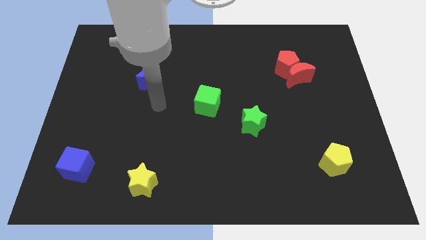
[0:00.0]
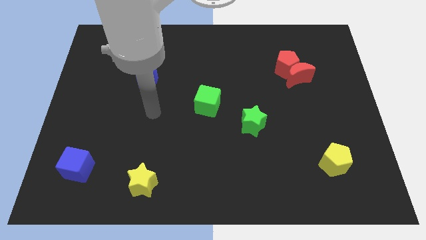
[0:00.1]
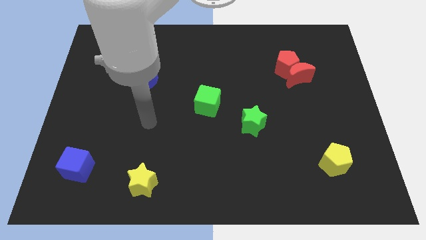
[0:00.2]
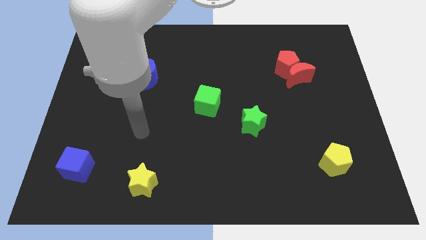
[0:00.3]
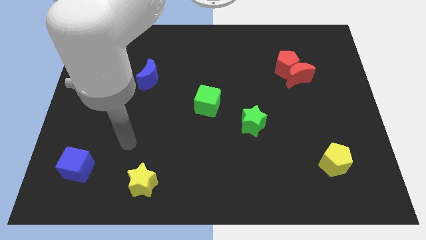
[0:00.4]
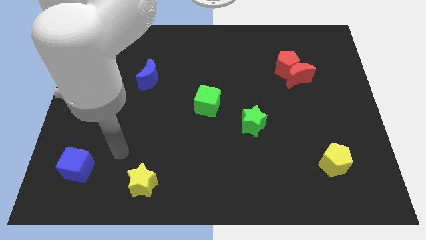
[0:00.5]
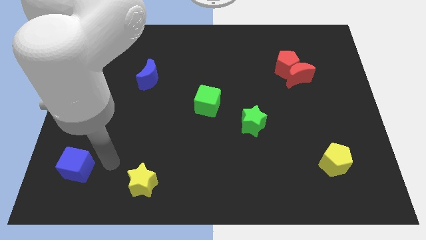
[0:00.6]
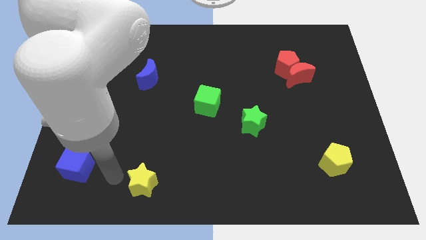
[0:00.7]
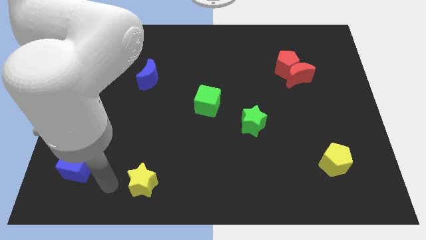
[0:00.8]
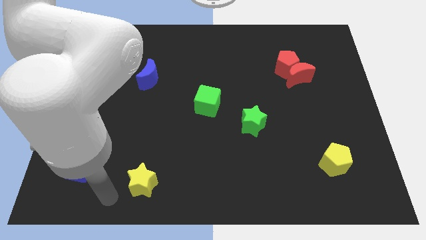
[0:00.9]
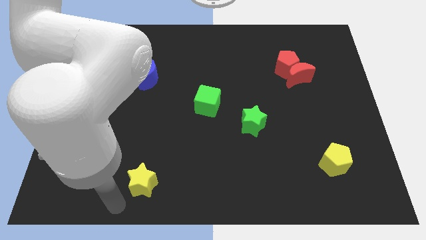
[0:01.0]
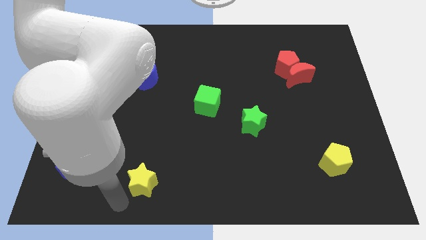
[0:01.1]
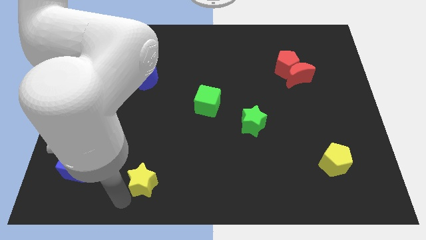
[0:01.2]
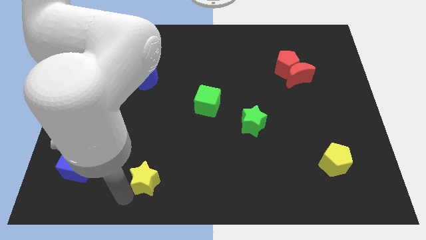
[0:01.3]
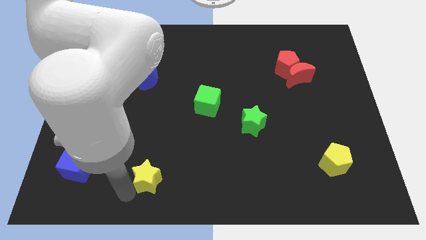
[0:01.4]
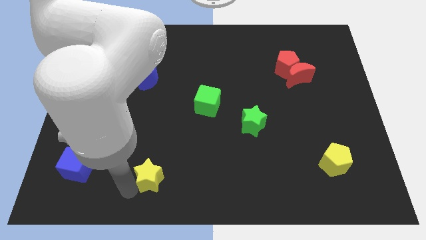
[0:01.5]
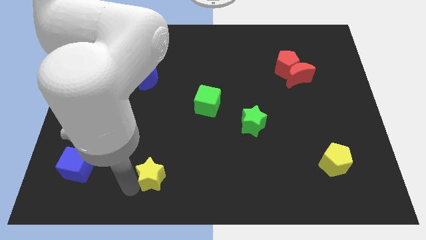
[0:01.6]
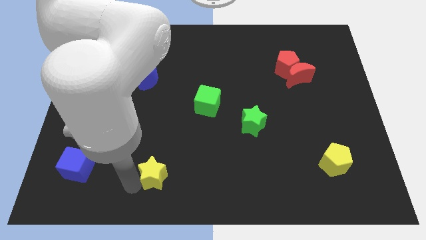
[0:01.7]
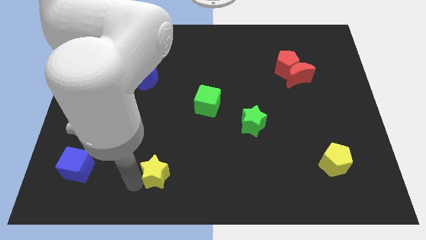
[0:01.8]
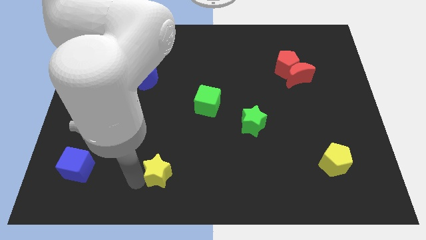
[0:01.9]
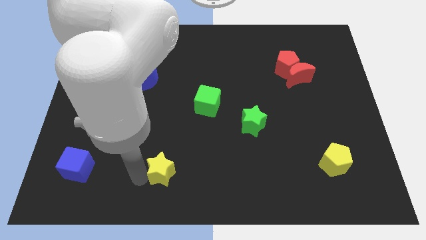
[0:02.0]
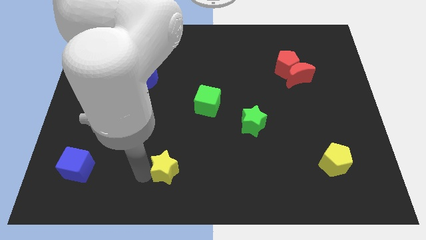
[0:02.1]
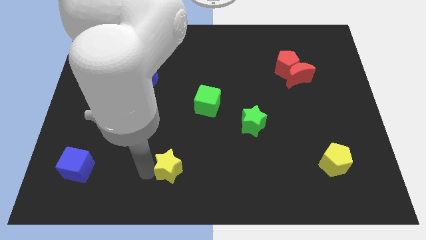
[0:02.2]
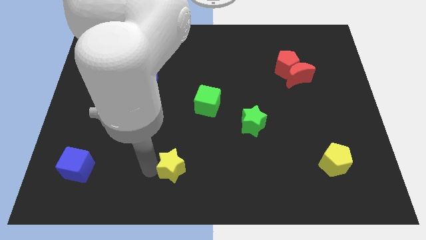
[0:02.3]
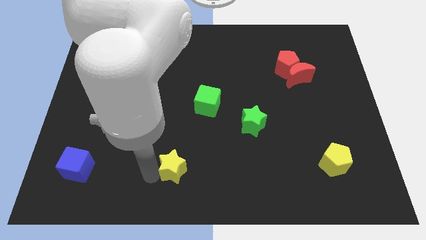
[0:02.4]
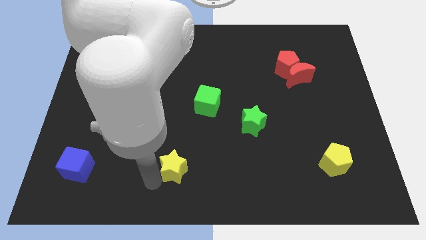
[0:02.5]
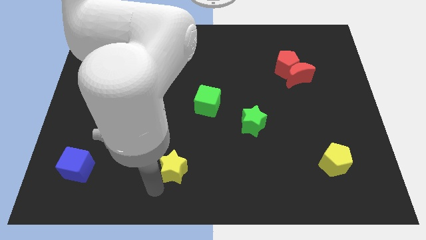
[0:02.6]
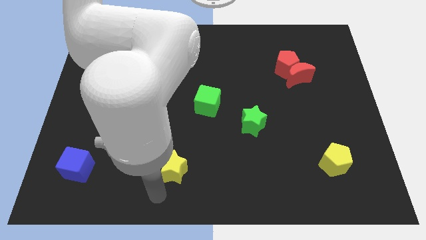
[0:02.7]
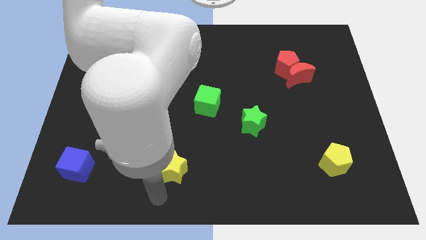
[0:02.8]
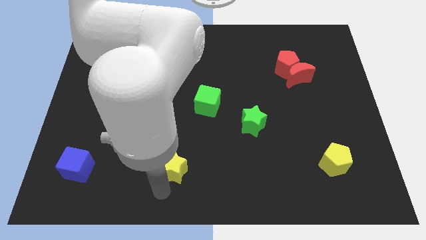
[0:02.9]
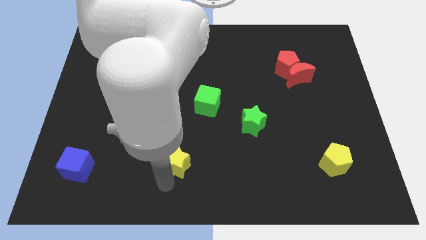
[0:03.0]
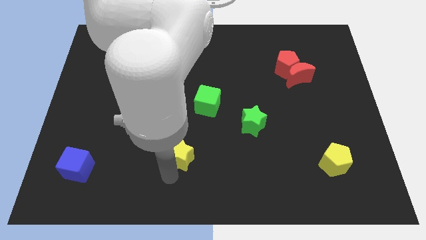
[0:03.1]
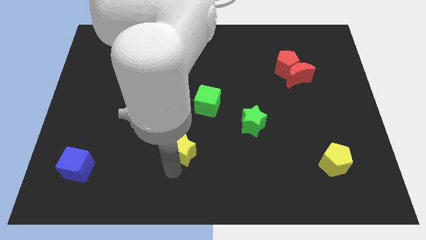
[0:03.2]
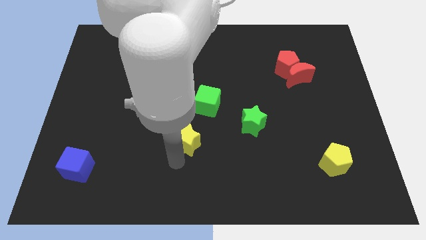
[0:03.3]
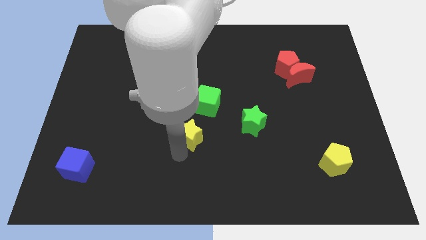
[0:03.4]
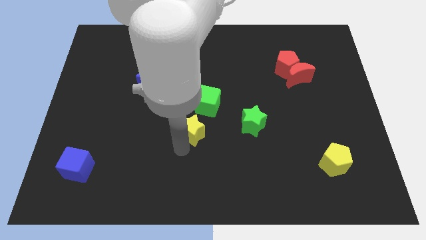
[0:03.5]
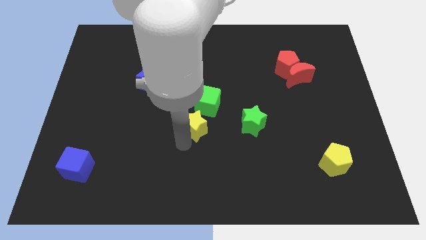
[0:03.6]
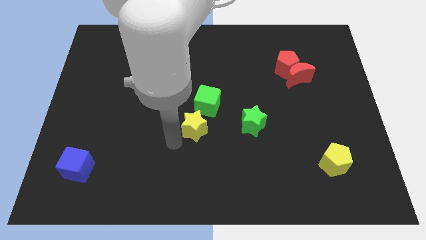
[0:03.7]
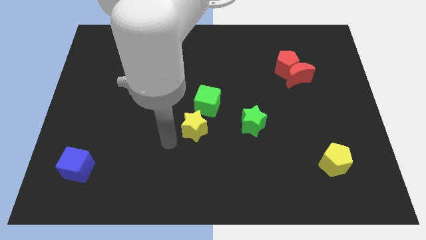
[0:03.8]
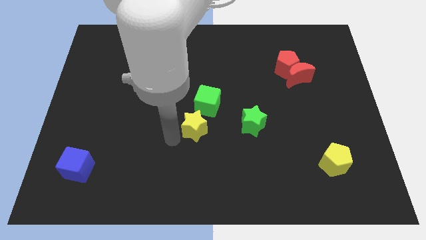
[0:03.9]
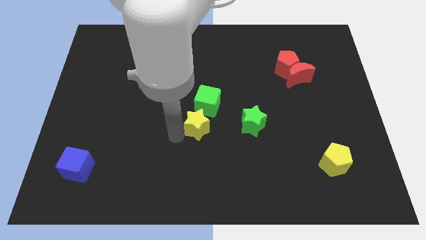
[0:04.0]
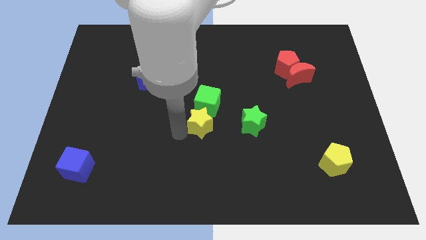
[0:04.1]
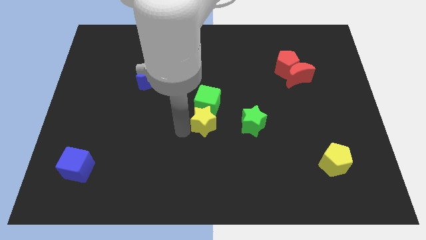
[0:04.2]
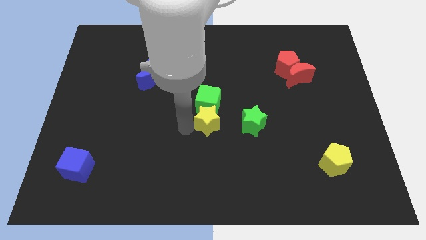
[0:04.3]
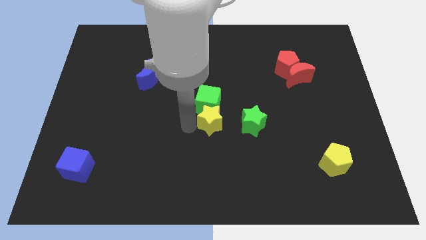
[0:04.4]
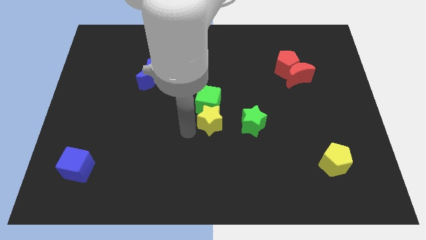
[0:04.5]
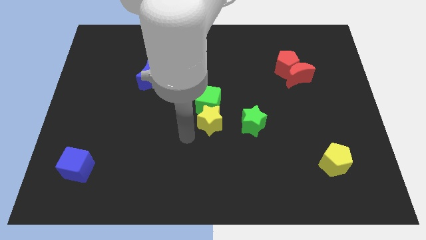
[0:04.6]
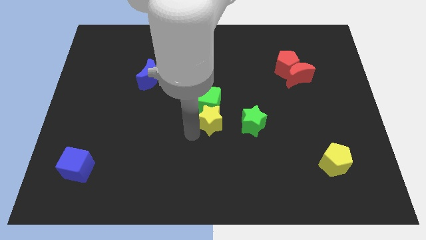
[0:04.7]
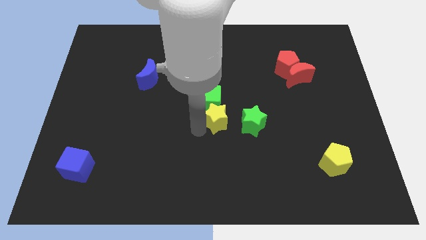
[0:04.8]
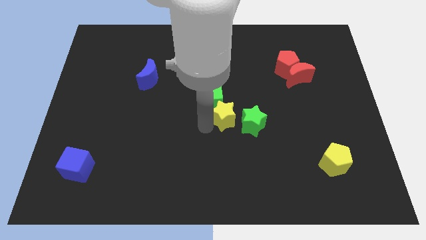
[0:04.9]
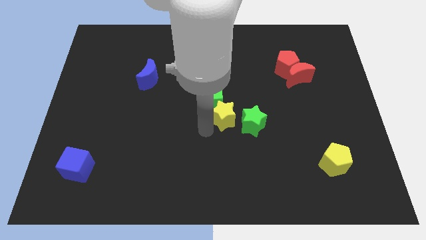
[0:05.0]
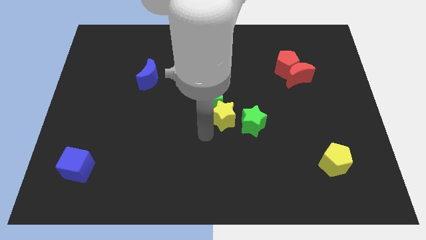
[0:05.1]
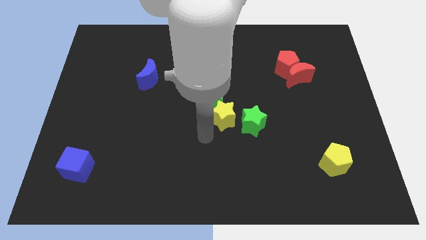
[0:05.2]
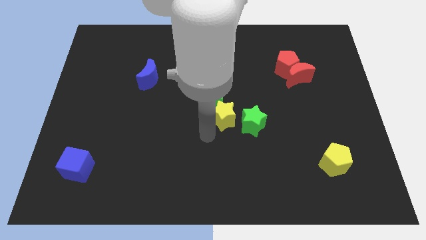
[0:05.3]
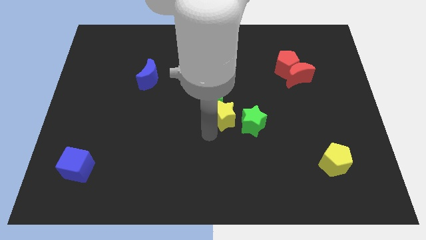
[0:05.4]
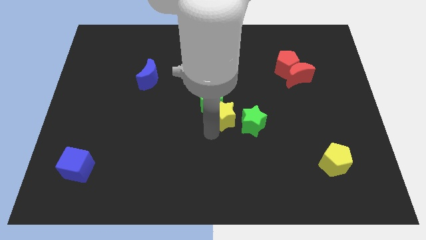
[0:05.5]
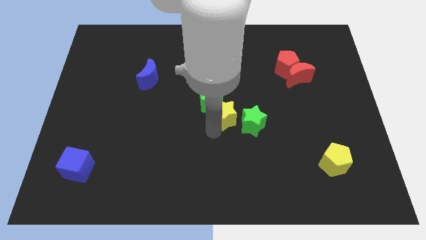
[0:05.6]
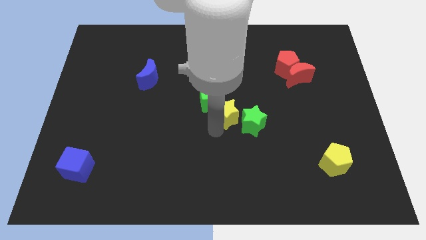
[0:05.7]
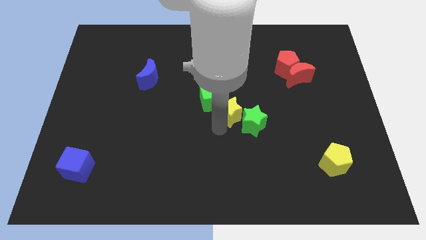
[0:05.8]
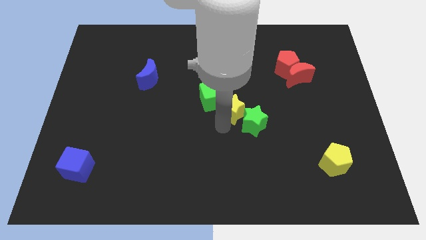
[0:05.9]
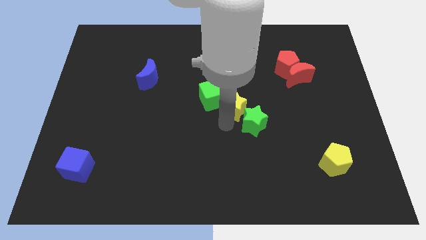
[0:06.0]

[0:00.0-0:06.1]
put the yellow star to the top side of the green star

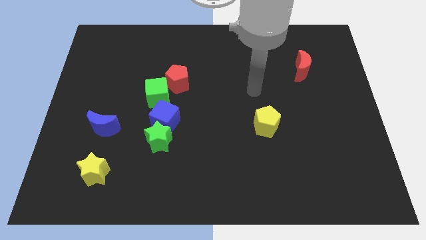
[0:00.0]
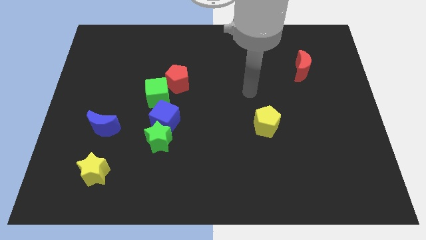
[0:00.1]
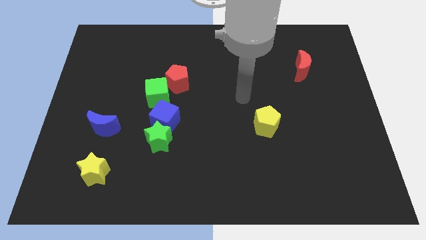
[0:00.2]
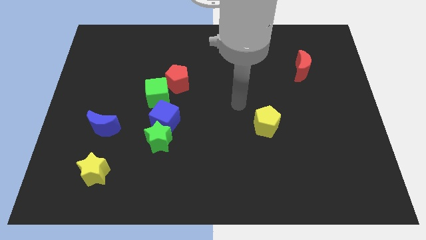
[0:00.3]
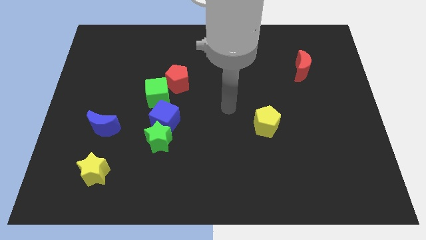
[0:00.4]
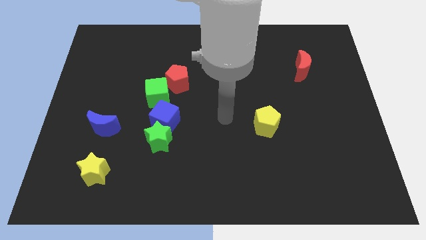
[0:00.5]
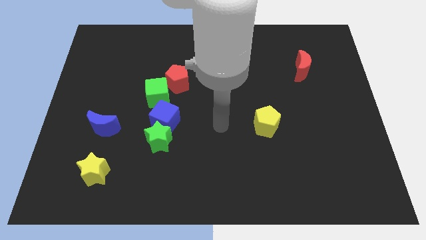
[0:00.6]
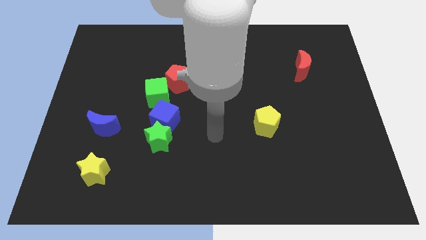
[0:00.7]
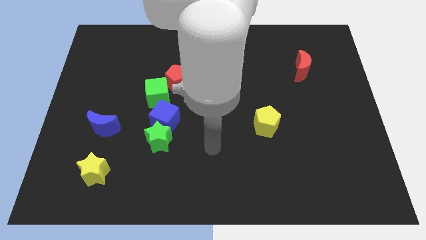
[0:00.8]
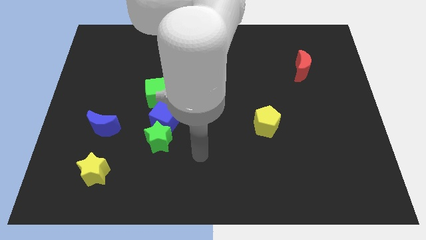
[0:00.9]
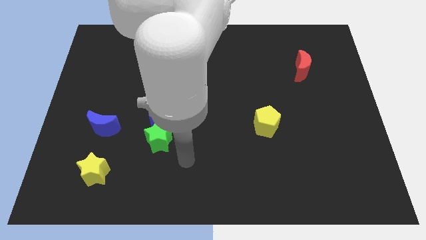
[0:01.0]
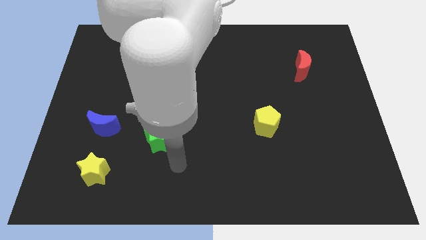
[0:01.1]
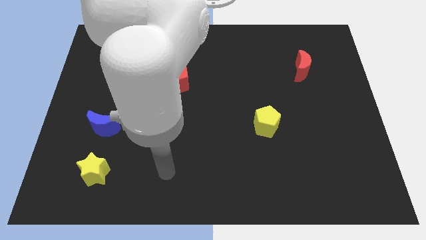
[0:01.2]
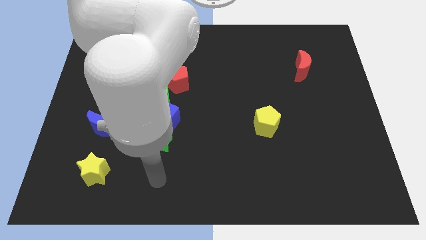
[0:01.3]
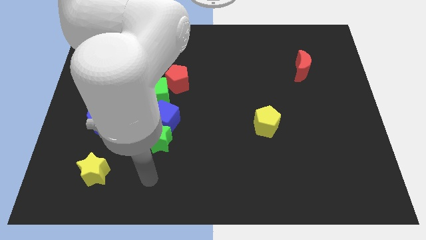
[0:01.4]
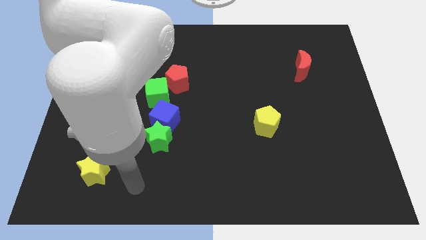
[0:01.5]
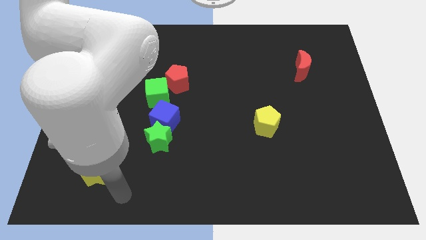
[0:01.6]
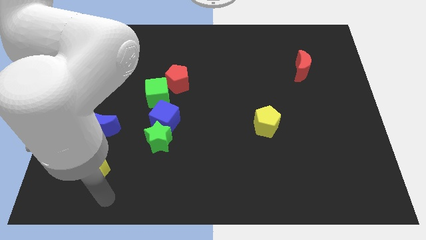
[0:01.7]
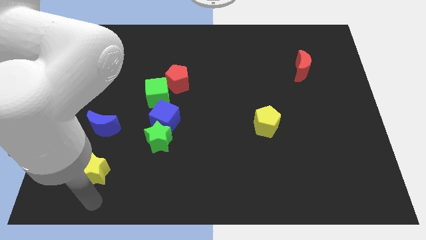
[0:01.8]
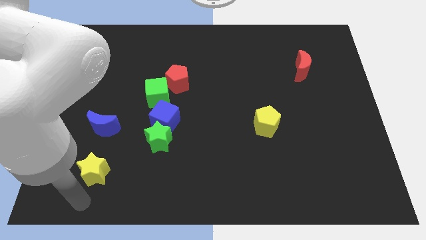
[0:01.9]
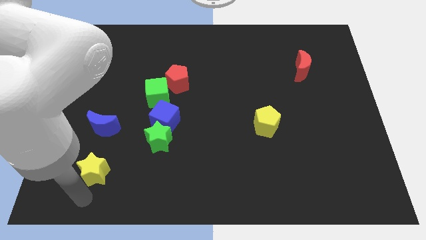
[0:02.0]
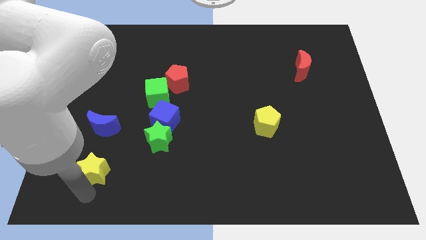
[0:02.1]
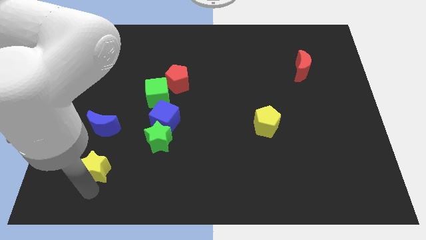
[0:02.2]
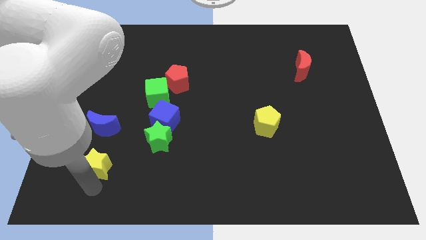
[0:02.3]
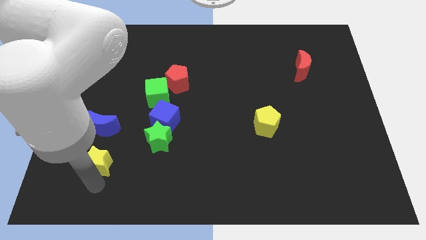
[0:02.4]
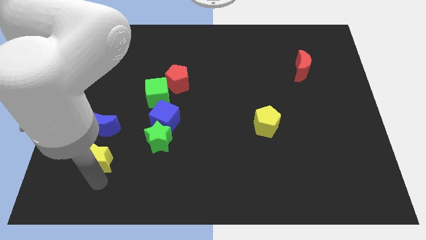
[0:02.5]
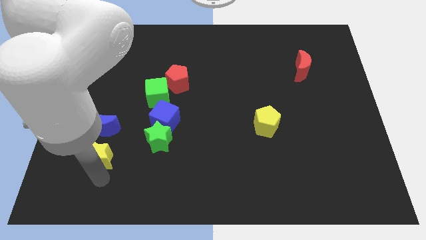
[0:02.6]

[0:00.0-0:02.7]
move the yellow star to the left of the green star
